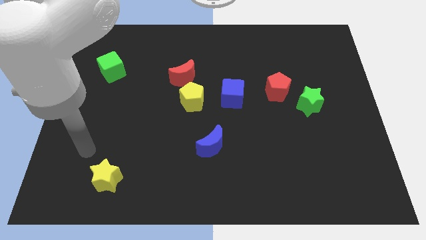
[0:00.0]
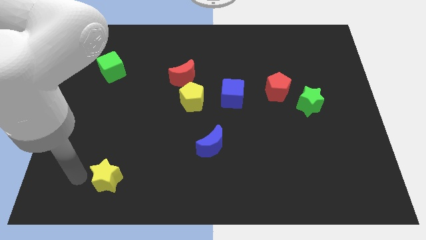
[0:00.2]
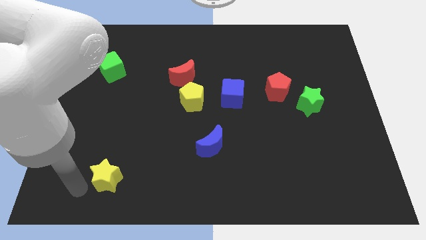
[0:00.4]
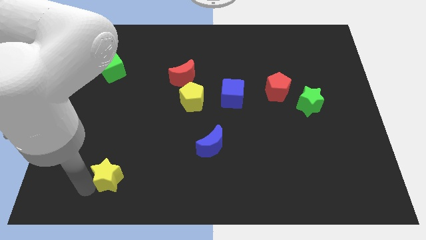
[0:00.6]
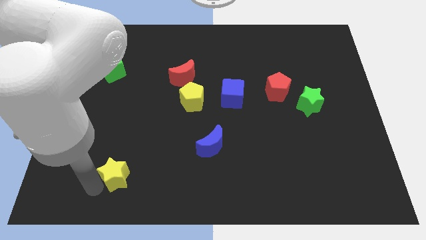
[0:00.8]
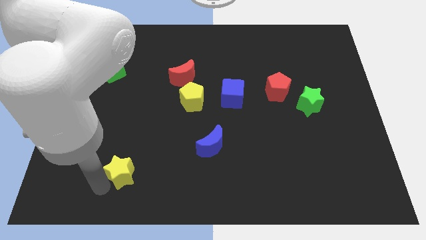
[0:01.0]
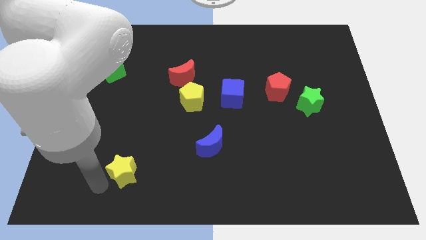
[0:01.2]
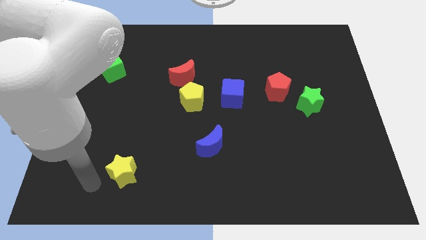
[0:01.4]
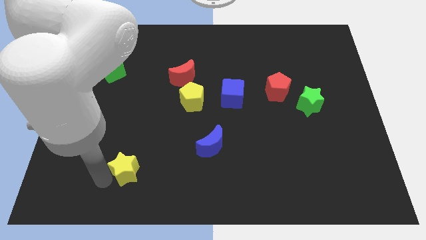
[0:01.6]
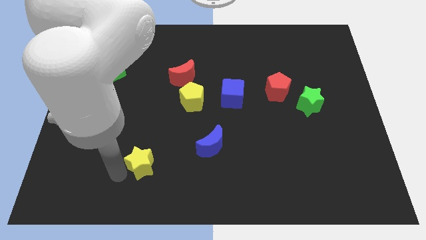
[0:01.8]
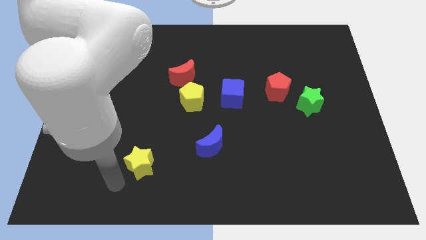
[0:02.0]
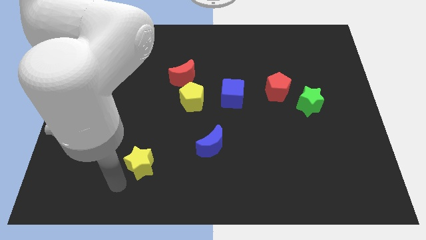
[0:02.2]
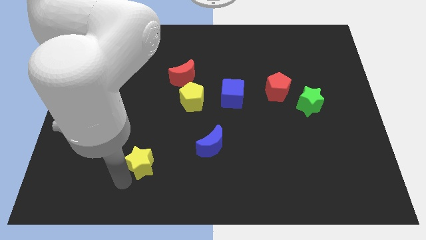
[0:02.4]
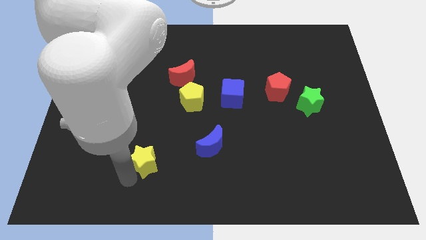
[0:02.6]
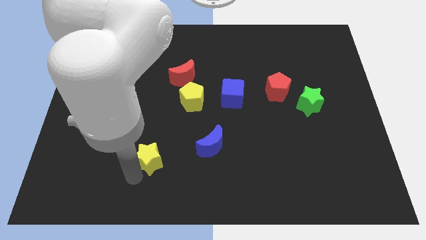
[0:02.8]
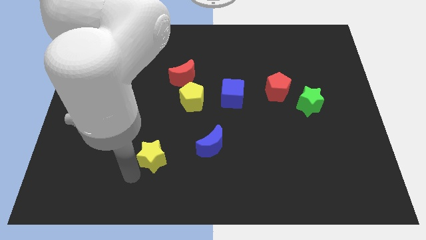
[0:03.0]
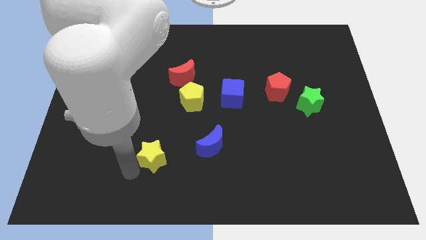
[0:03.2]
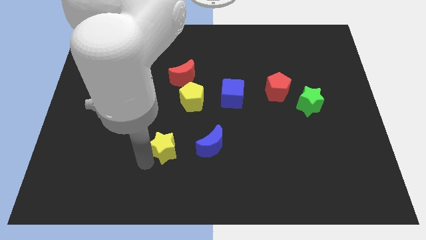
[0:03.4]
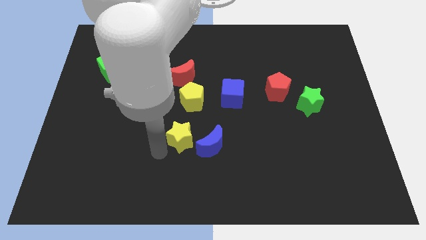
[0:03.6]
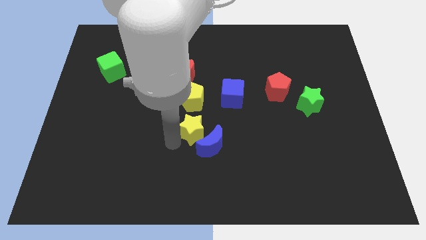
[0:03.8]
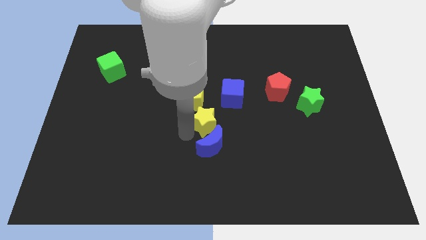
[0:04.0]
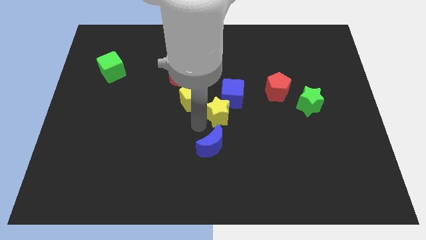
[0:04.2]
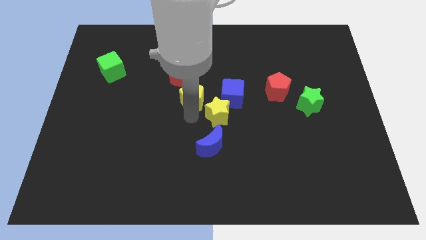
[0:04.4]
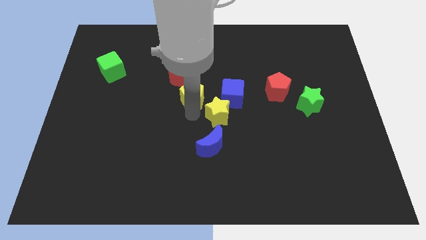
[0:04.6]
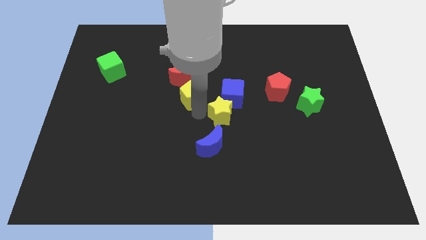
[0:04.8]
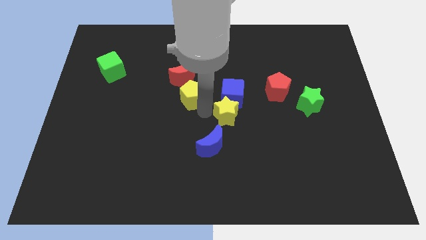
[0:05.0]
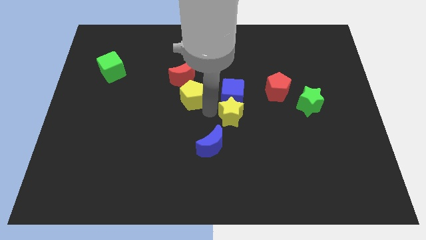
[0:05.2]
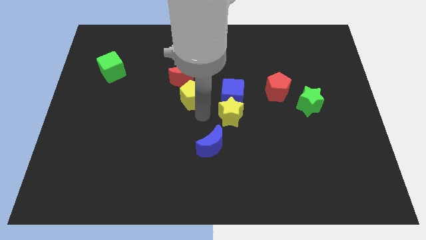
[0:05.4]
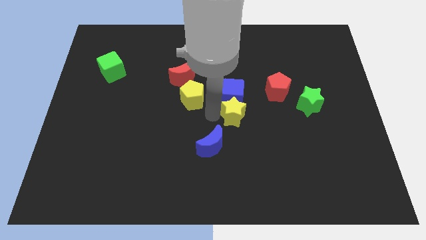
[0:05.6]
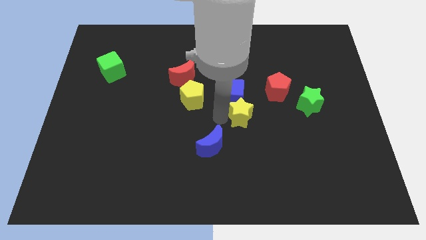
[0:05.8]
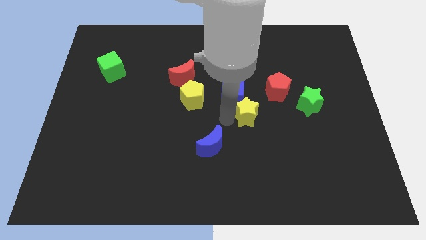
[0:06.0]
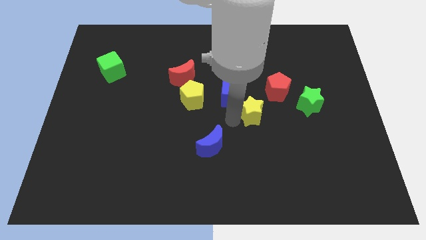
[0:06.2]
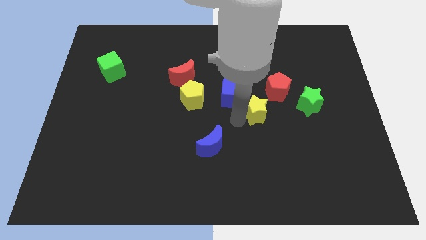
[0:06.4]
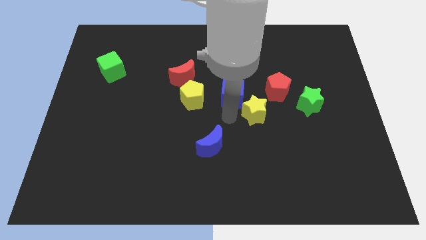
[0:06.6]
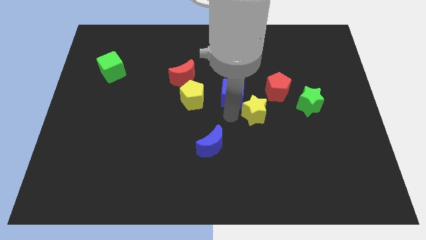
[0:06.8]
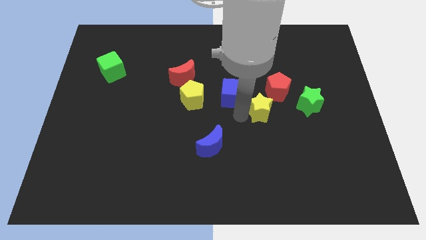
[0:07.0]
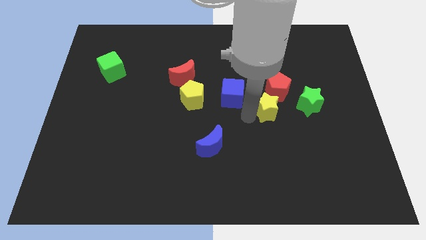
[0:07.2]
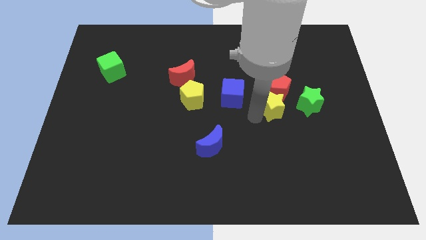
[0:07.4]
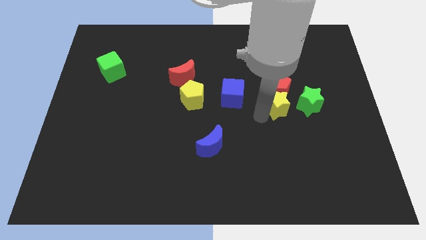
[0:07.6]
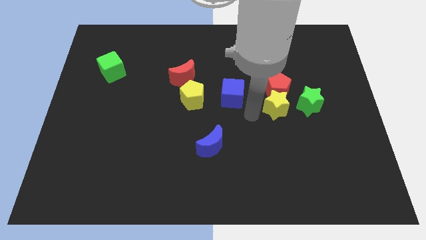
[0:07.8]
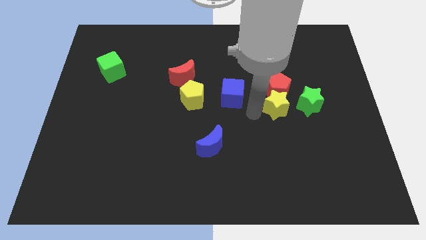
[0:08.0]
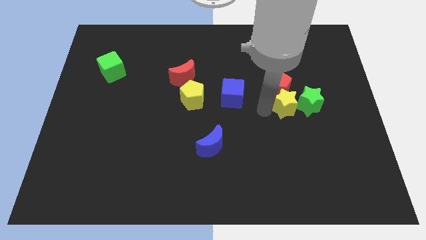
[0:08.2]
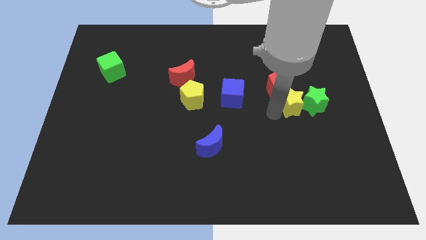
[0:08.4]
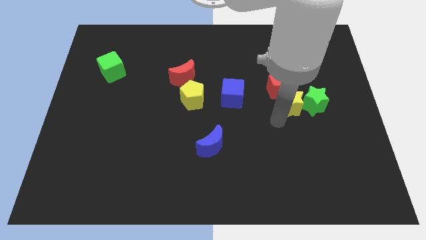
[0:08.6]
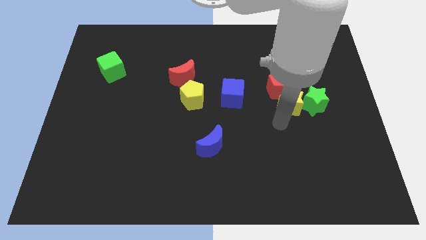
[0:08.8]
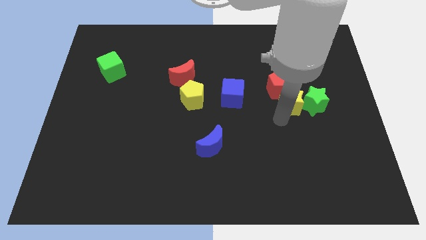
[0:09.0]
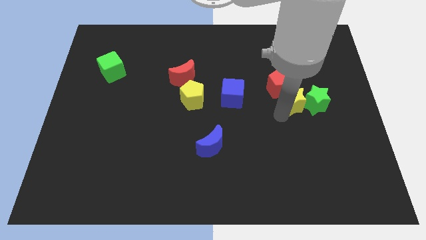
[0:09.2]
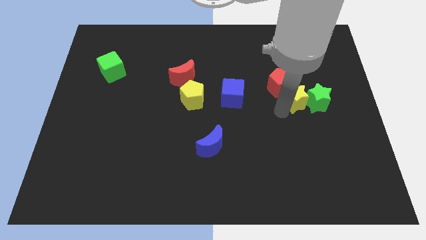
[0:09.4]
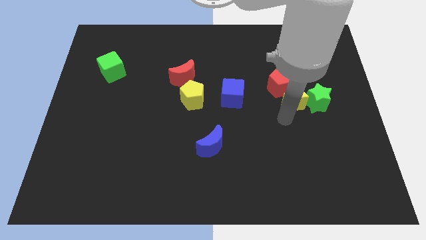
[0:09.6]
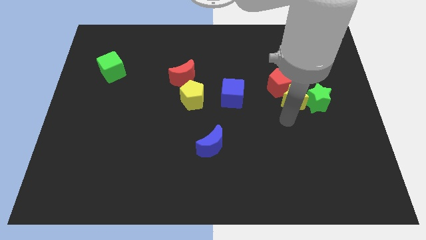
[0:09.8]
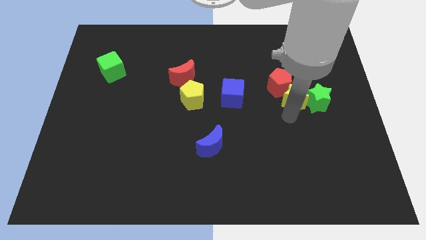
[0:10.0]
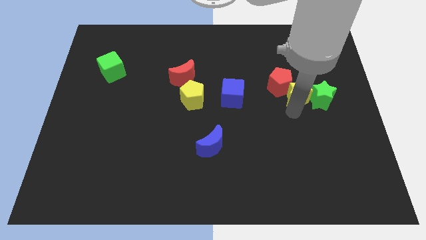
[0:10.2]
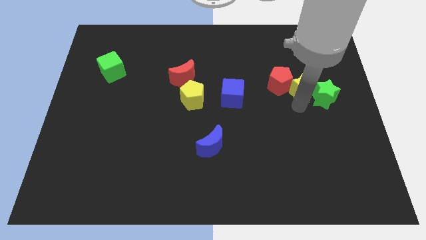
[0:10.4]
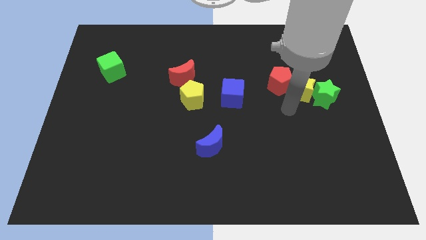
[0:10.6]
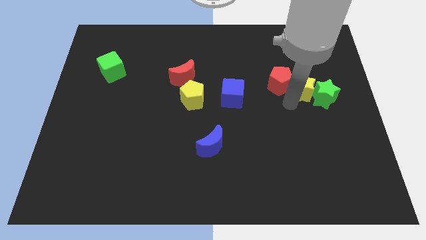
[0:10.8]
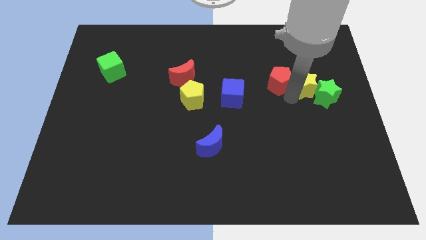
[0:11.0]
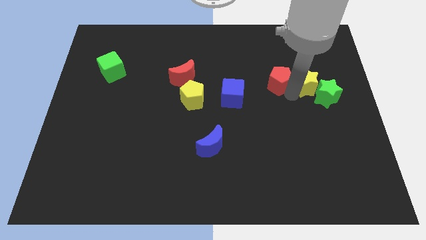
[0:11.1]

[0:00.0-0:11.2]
put the yellow star to the top side of the green star

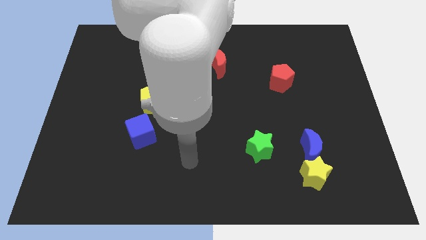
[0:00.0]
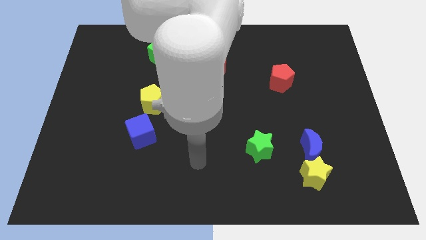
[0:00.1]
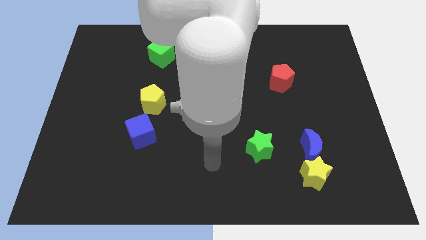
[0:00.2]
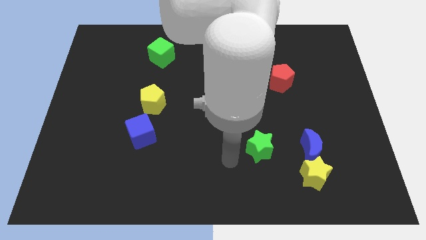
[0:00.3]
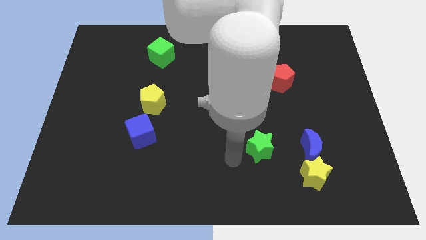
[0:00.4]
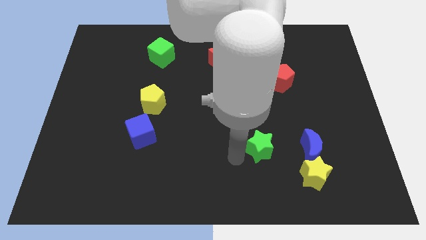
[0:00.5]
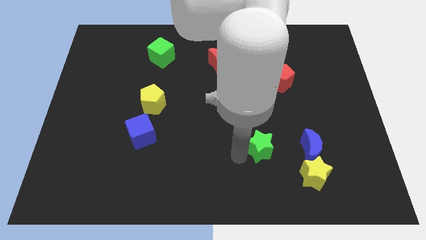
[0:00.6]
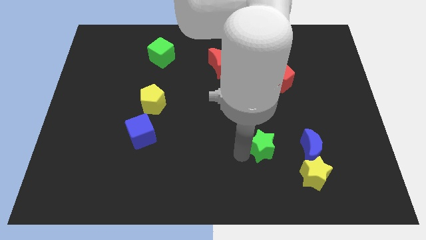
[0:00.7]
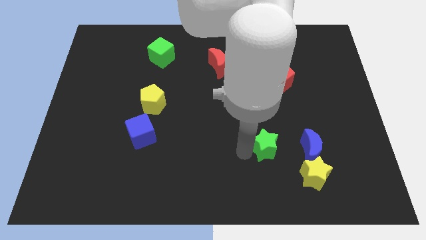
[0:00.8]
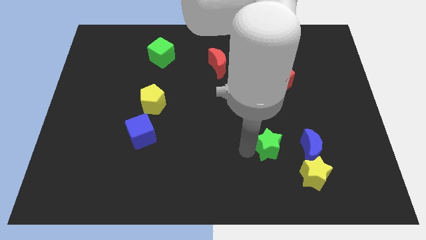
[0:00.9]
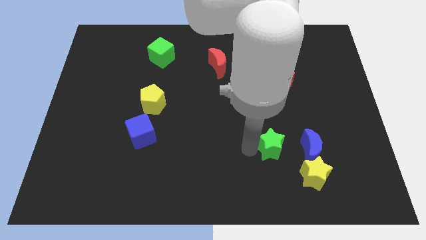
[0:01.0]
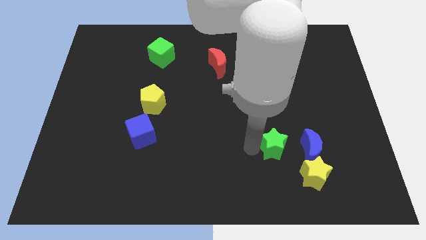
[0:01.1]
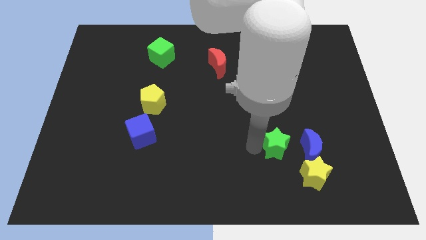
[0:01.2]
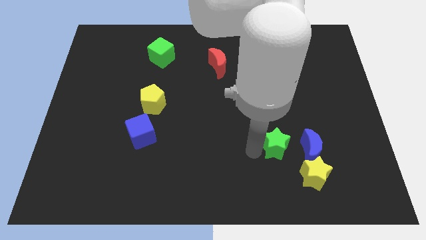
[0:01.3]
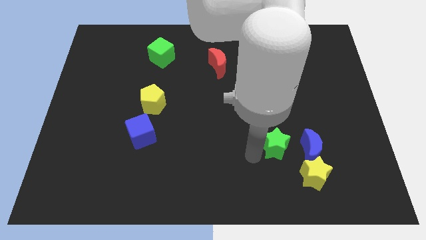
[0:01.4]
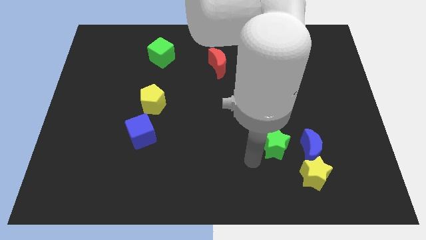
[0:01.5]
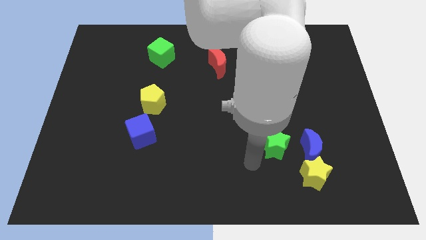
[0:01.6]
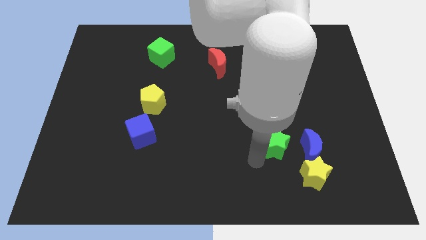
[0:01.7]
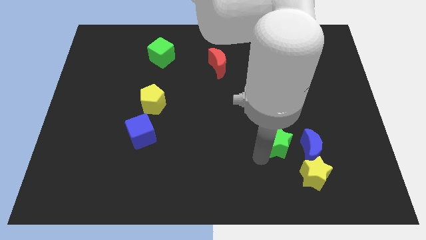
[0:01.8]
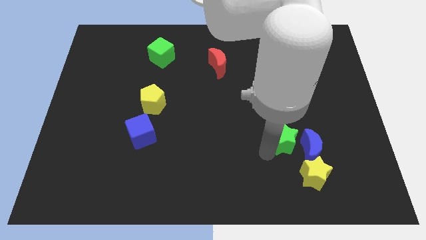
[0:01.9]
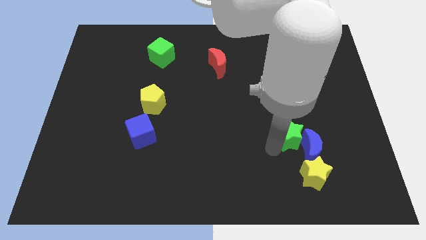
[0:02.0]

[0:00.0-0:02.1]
slide the green star above the yellow star

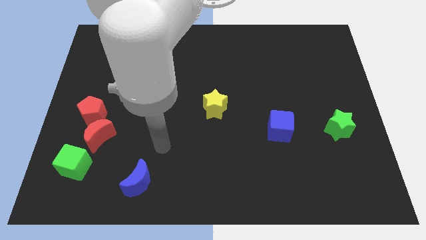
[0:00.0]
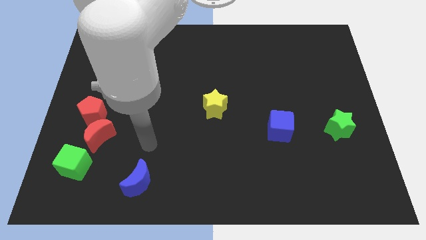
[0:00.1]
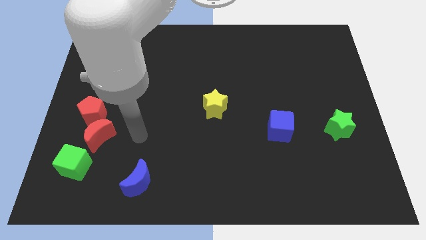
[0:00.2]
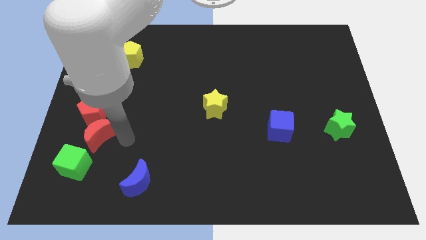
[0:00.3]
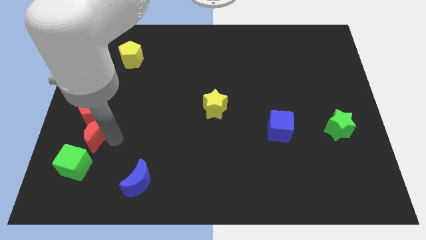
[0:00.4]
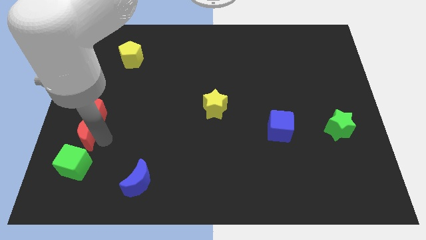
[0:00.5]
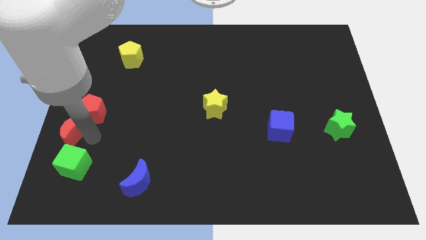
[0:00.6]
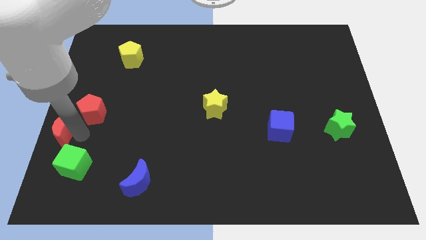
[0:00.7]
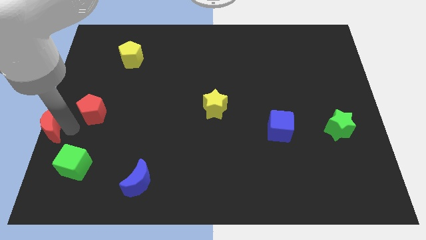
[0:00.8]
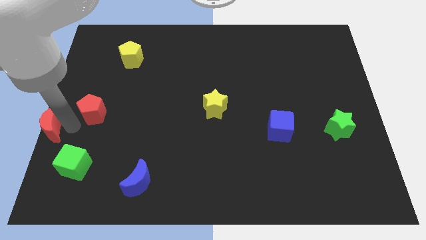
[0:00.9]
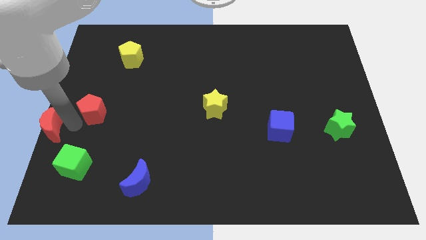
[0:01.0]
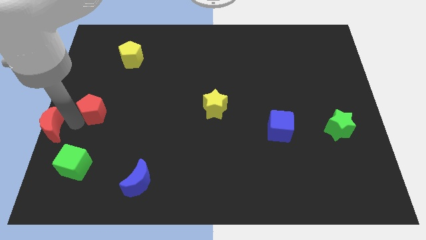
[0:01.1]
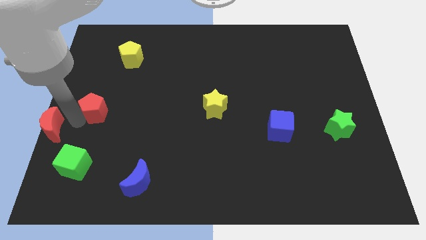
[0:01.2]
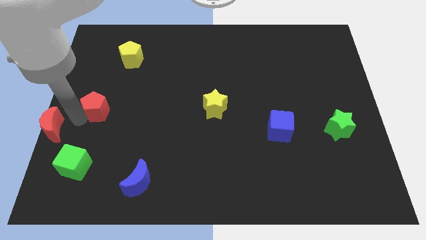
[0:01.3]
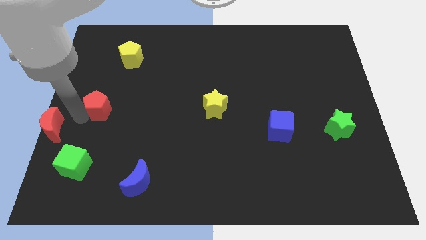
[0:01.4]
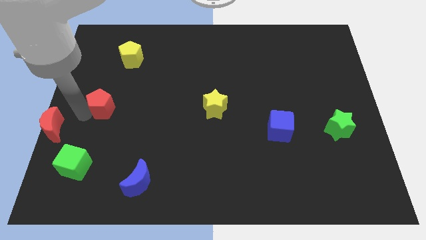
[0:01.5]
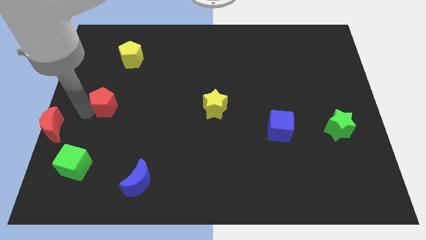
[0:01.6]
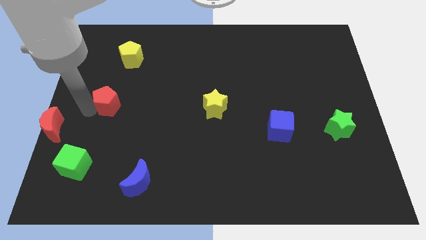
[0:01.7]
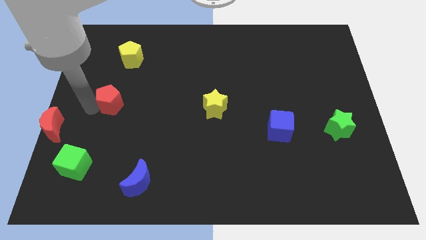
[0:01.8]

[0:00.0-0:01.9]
put the red pentagon below the yellow pentagon
